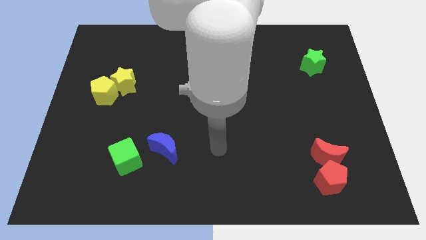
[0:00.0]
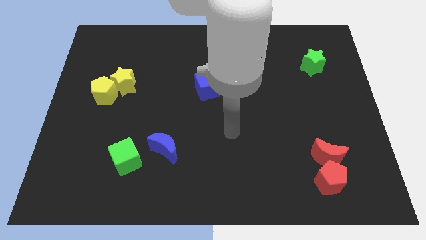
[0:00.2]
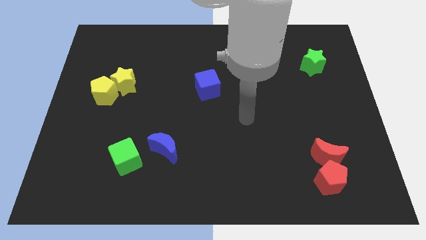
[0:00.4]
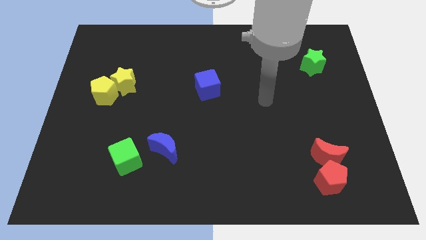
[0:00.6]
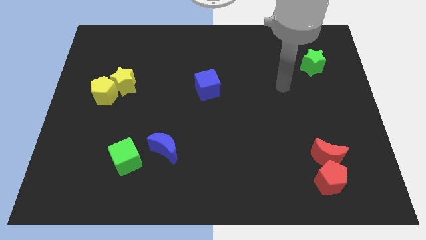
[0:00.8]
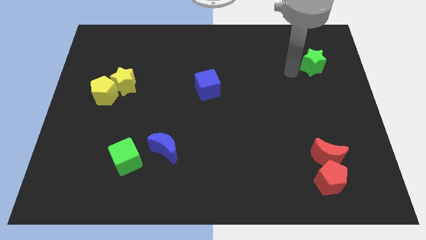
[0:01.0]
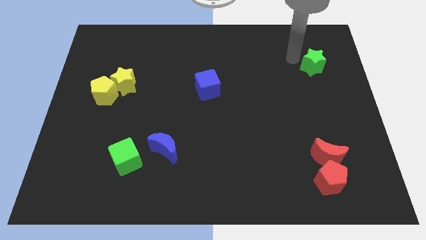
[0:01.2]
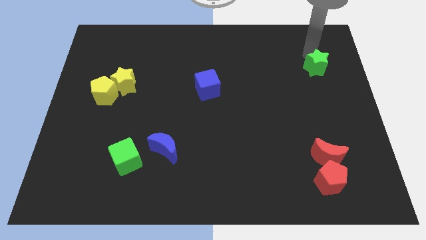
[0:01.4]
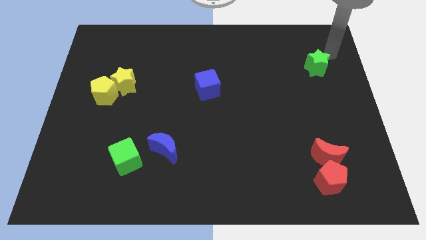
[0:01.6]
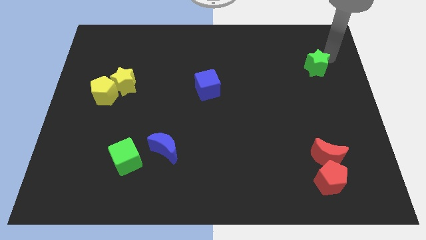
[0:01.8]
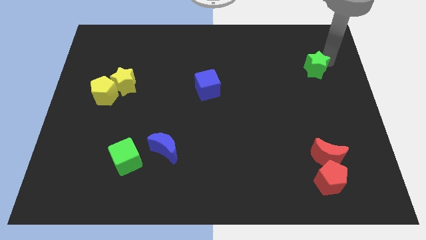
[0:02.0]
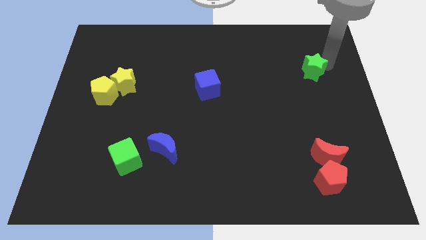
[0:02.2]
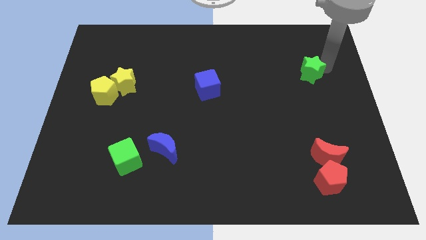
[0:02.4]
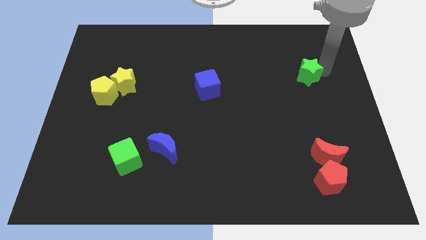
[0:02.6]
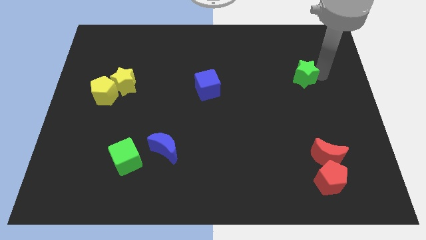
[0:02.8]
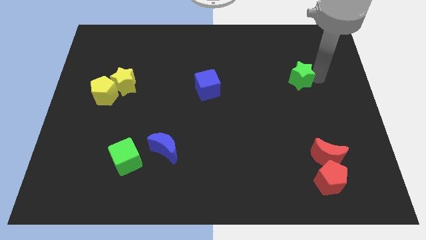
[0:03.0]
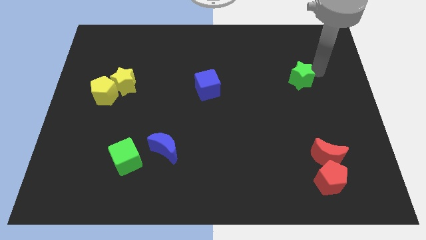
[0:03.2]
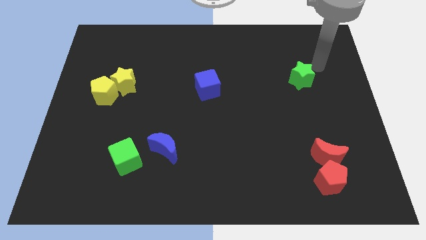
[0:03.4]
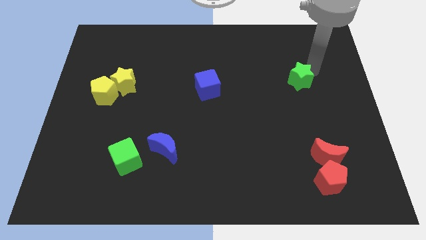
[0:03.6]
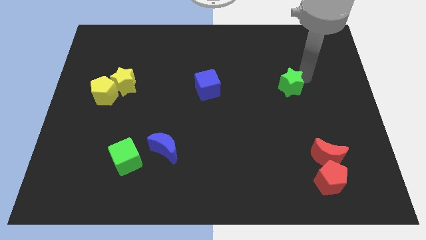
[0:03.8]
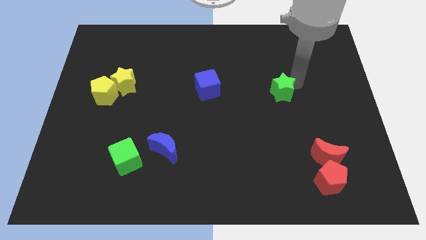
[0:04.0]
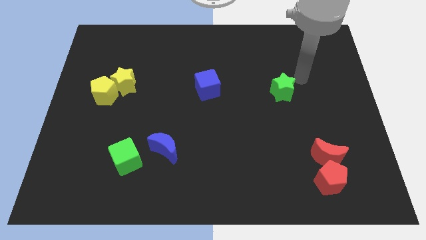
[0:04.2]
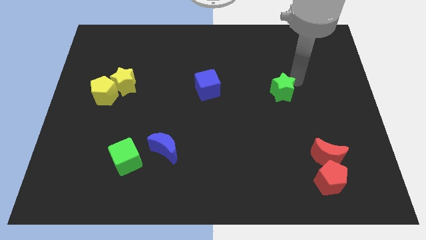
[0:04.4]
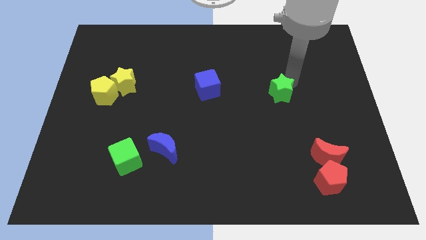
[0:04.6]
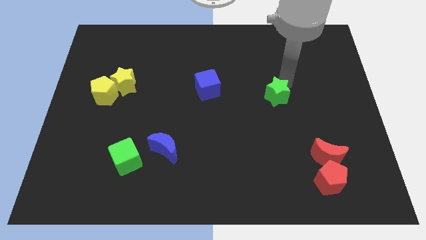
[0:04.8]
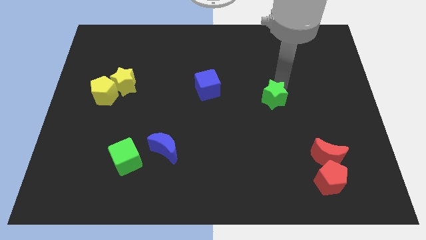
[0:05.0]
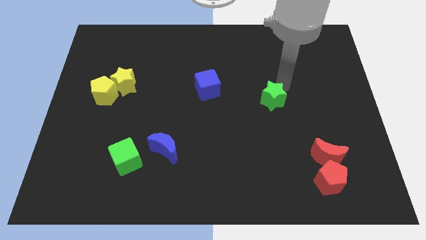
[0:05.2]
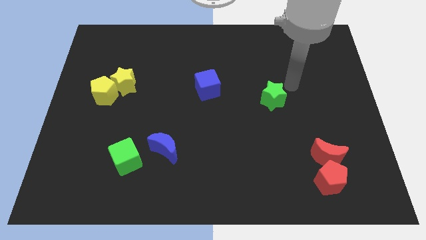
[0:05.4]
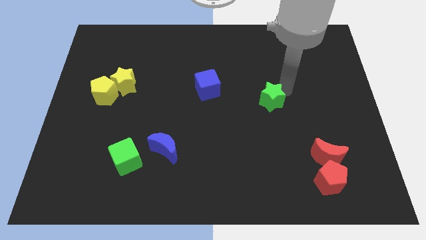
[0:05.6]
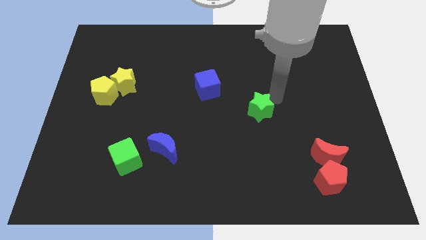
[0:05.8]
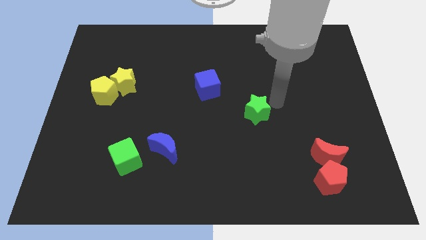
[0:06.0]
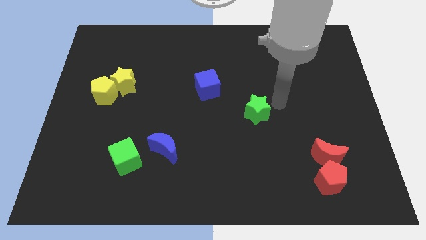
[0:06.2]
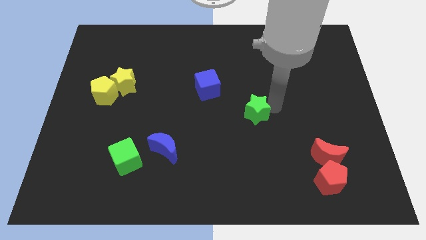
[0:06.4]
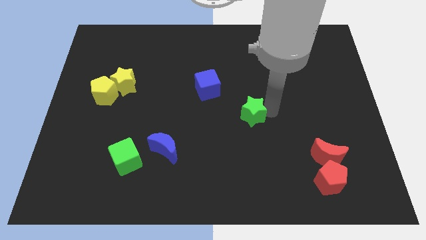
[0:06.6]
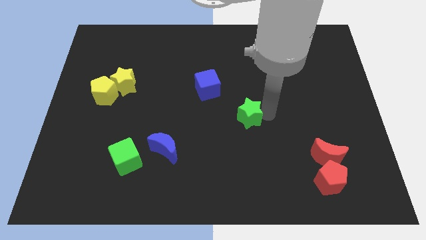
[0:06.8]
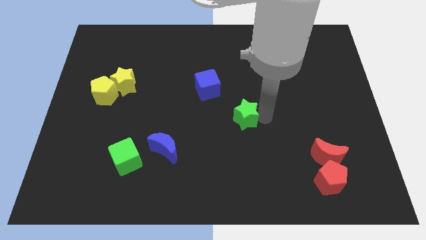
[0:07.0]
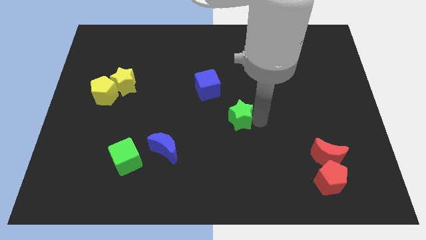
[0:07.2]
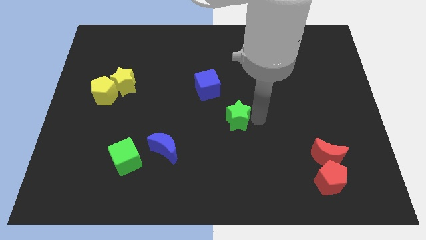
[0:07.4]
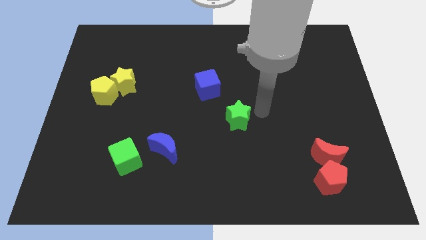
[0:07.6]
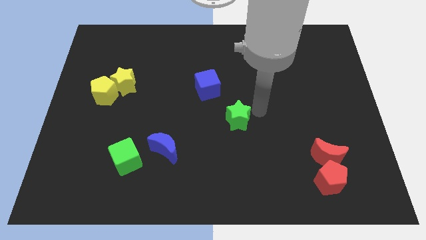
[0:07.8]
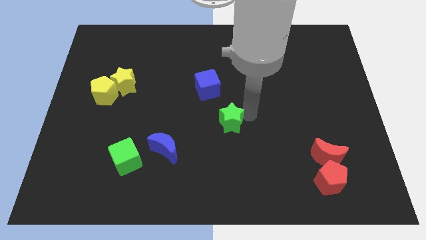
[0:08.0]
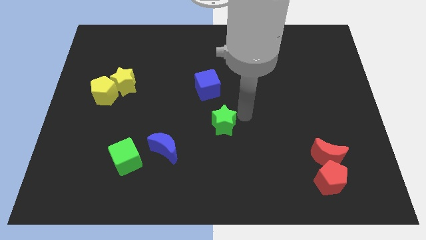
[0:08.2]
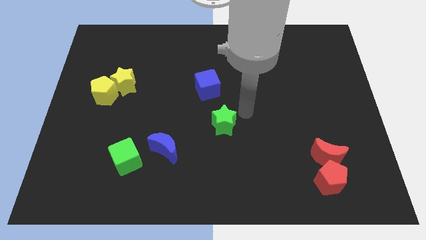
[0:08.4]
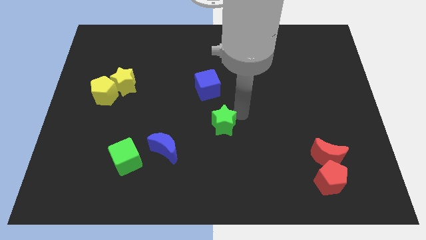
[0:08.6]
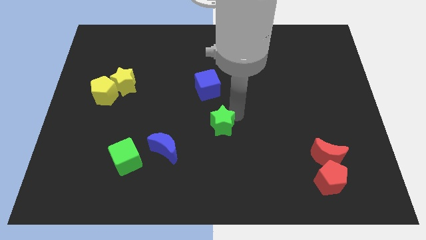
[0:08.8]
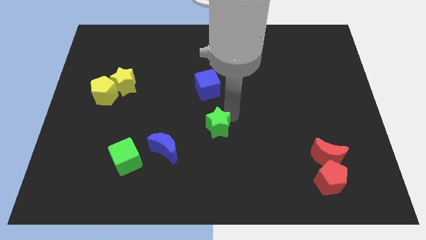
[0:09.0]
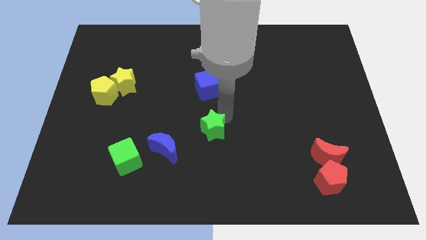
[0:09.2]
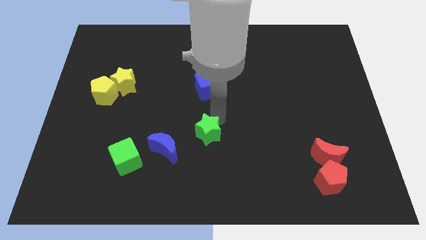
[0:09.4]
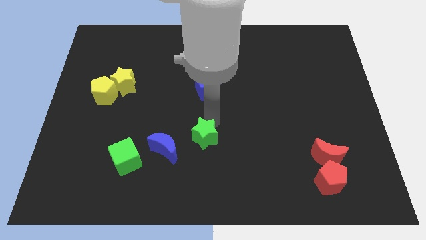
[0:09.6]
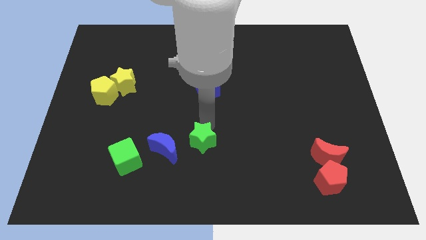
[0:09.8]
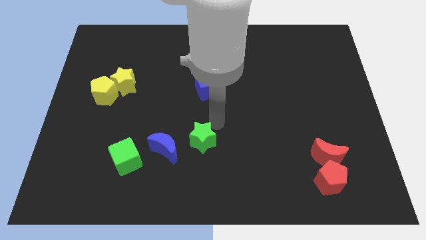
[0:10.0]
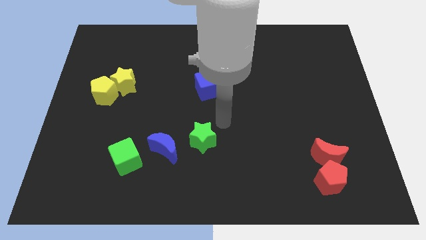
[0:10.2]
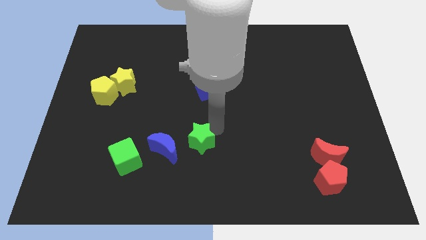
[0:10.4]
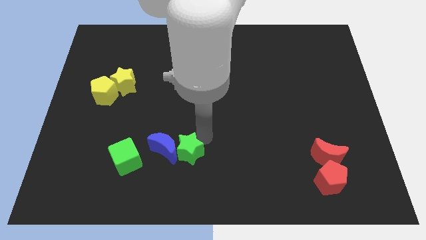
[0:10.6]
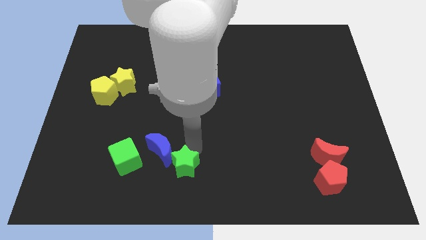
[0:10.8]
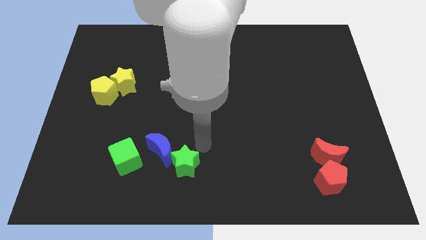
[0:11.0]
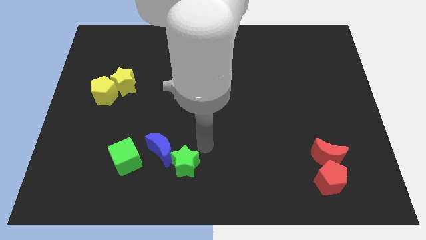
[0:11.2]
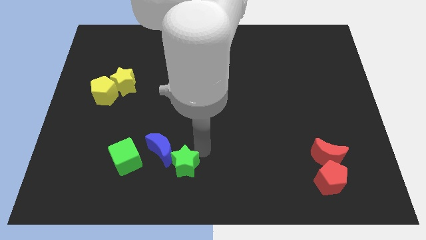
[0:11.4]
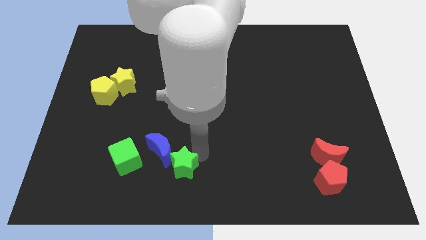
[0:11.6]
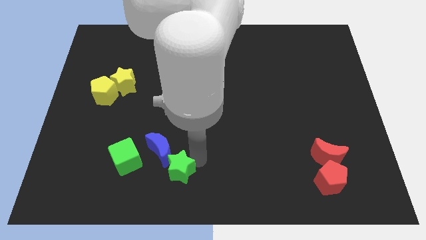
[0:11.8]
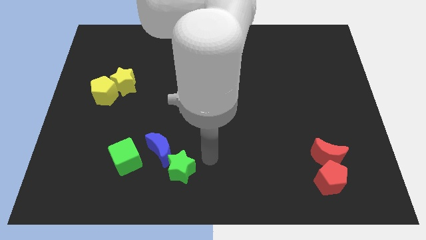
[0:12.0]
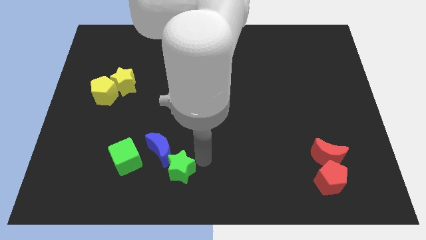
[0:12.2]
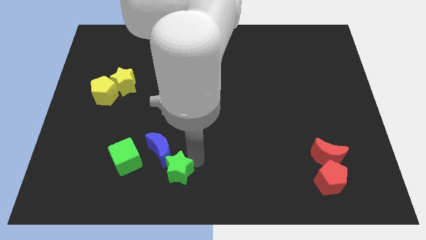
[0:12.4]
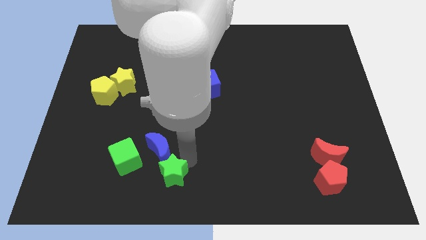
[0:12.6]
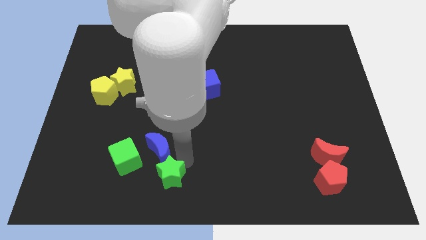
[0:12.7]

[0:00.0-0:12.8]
push the green star to the bottom right side of the green cube
